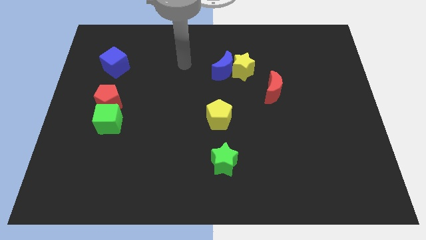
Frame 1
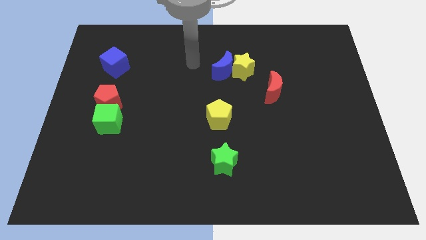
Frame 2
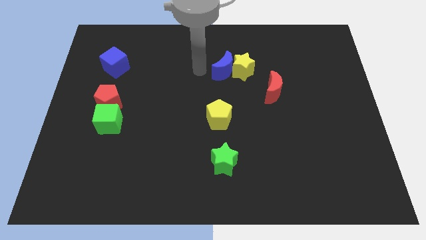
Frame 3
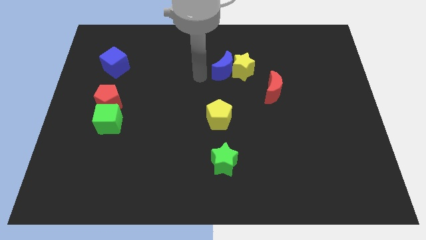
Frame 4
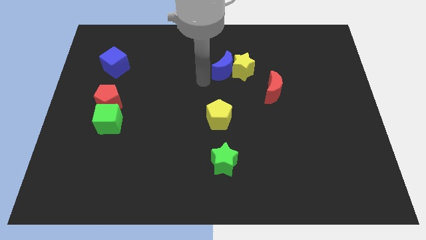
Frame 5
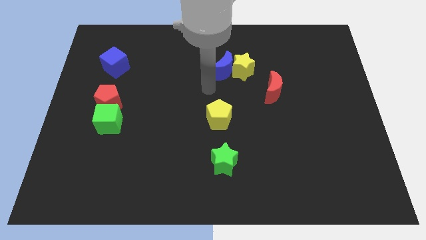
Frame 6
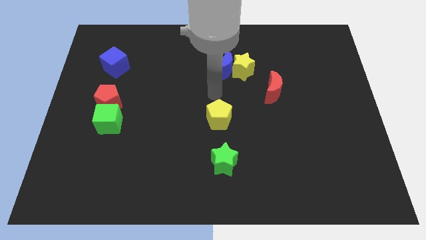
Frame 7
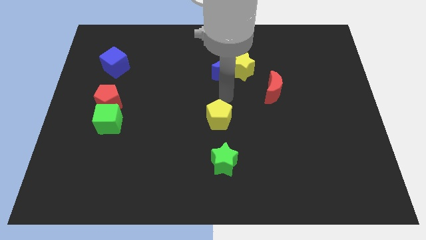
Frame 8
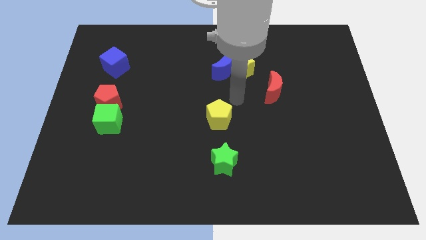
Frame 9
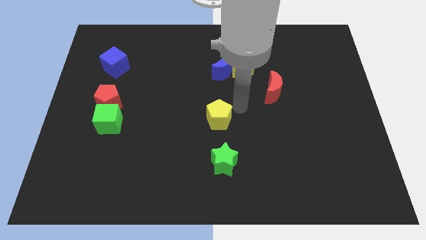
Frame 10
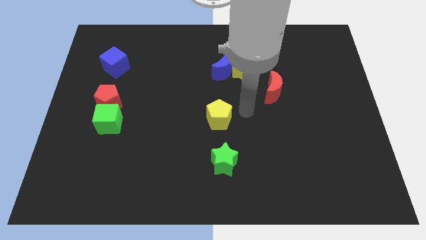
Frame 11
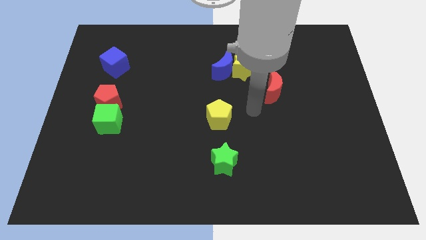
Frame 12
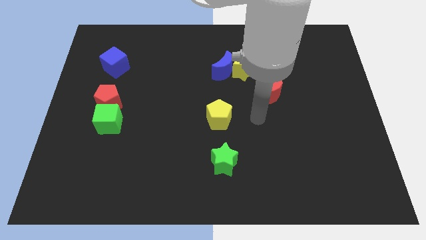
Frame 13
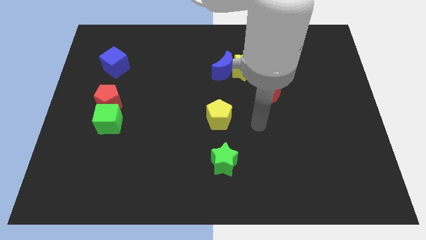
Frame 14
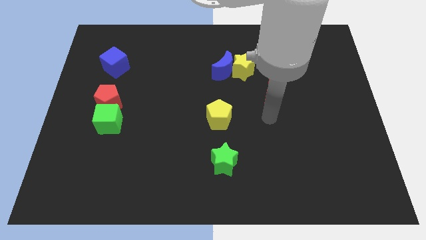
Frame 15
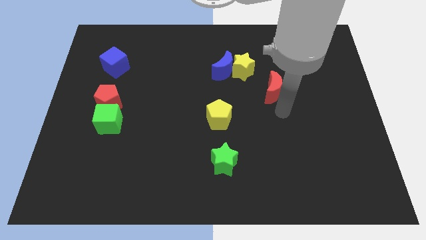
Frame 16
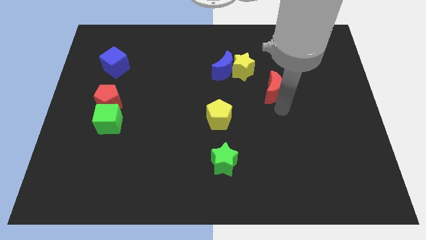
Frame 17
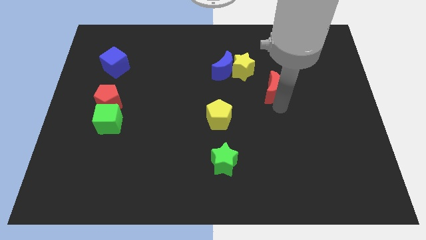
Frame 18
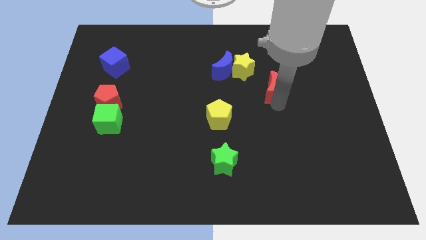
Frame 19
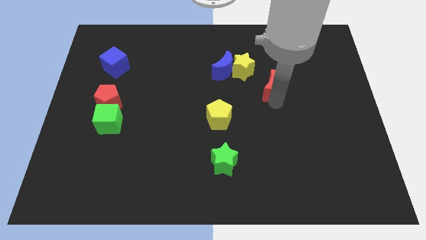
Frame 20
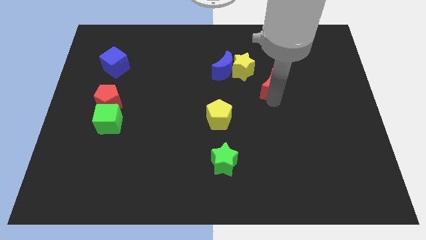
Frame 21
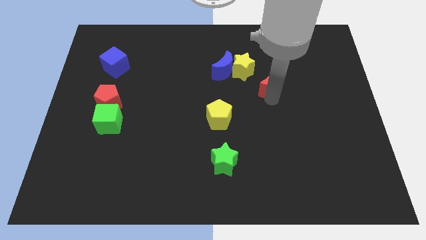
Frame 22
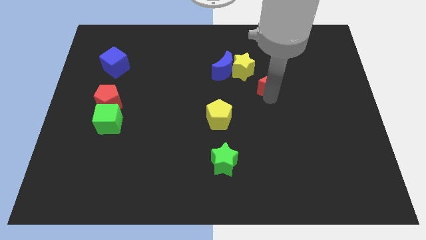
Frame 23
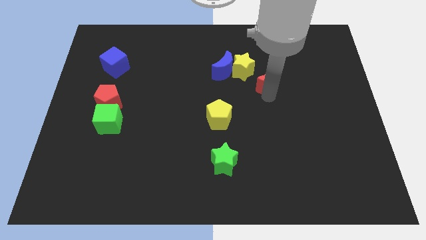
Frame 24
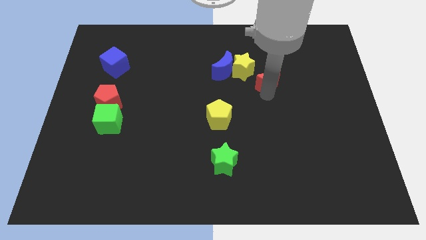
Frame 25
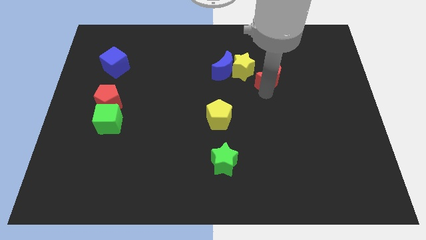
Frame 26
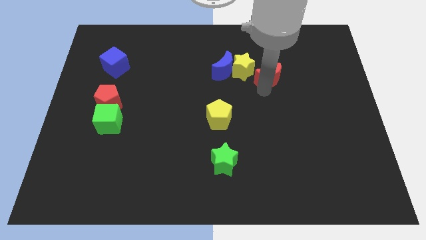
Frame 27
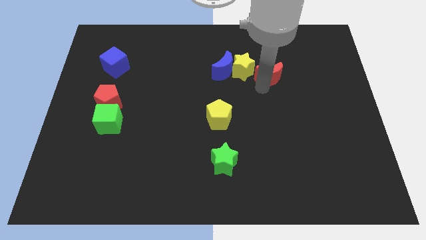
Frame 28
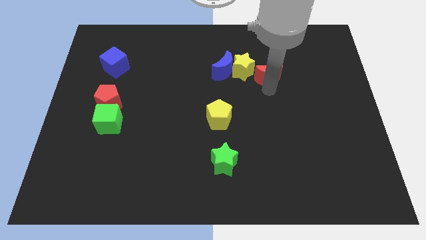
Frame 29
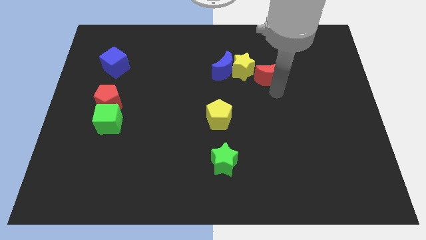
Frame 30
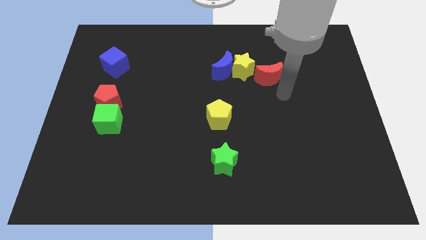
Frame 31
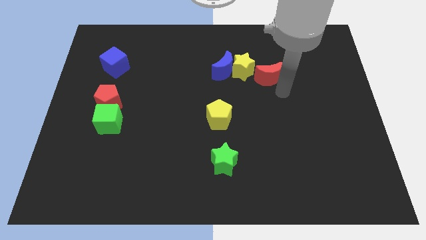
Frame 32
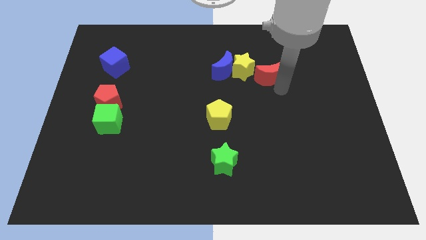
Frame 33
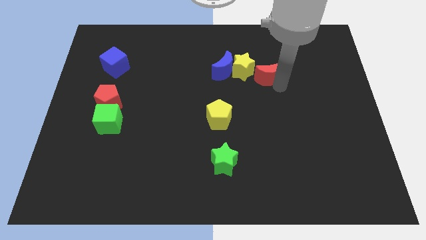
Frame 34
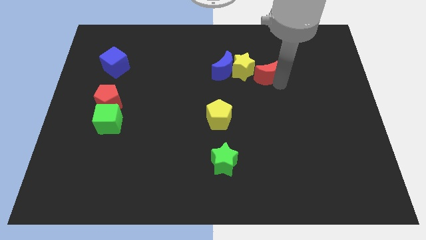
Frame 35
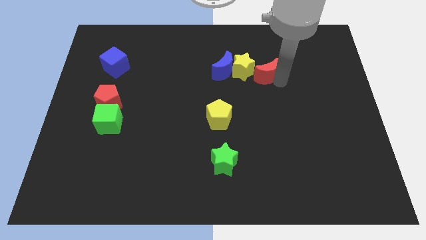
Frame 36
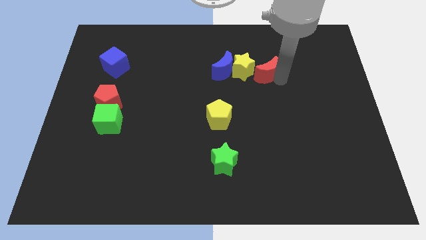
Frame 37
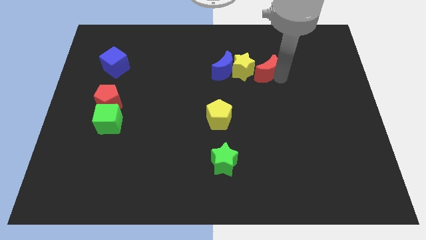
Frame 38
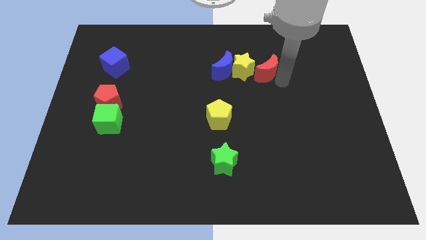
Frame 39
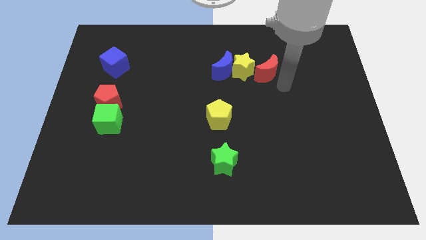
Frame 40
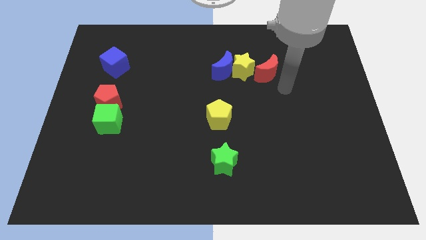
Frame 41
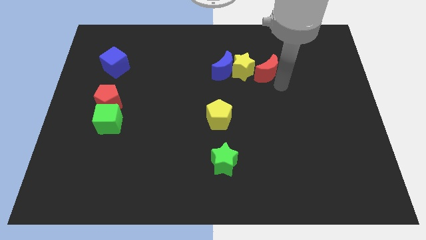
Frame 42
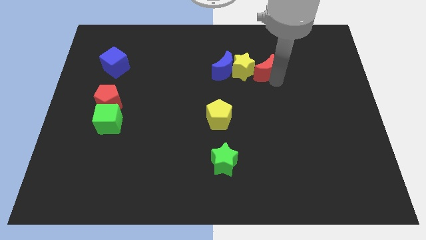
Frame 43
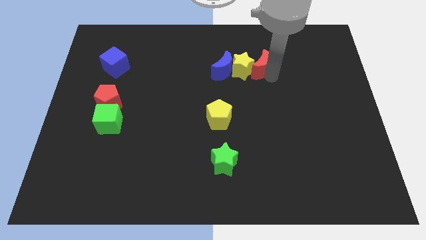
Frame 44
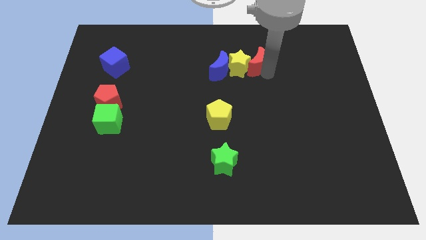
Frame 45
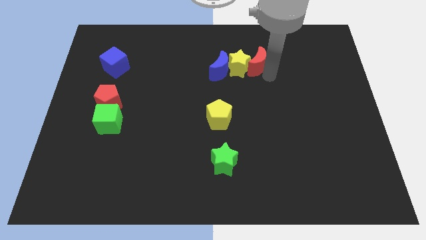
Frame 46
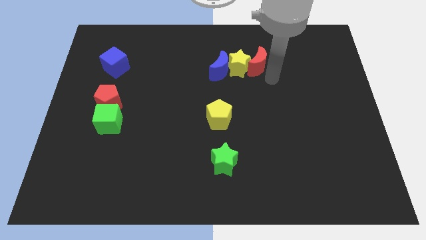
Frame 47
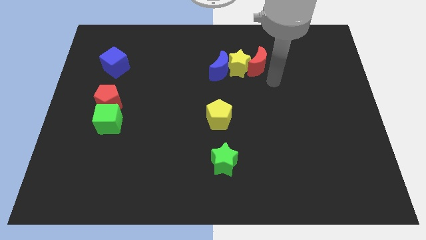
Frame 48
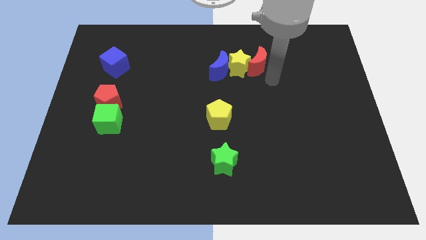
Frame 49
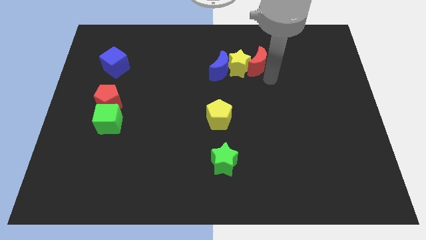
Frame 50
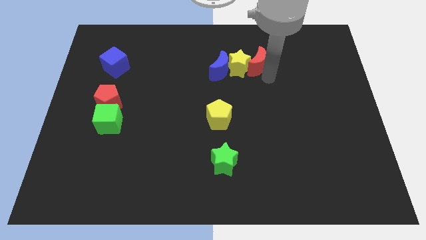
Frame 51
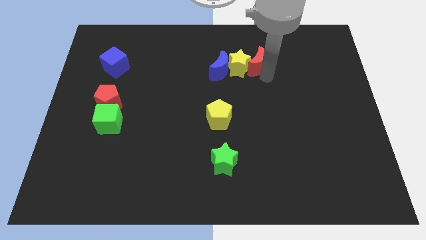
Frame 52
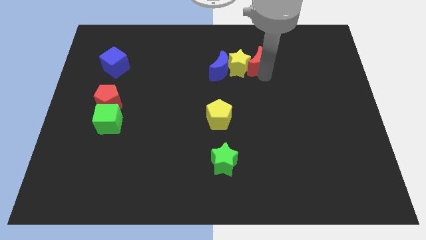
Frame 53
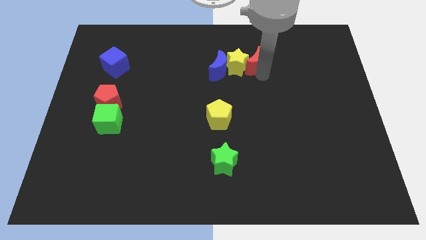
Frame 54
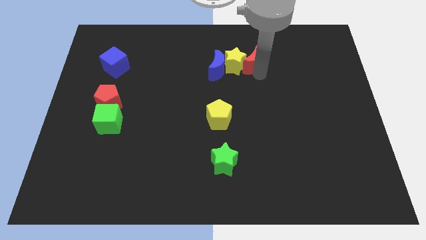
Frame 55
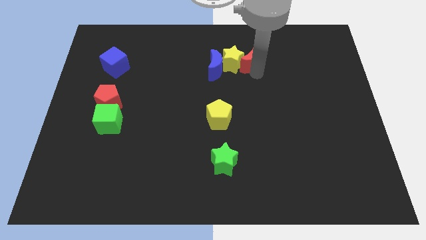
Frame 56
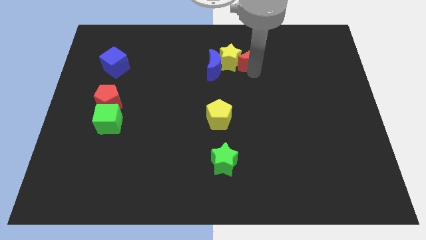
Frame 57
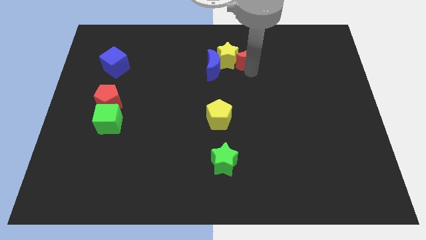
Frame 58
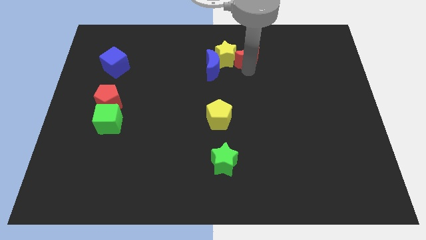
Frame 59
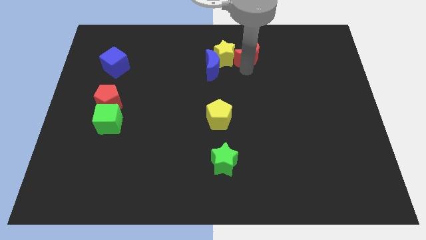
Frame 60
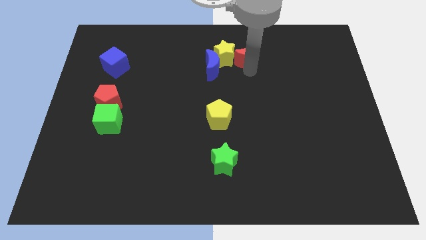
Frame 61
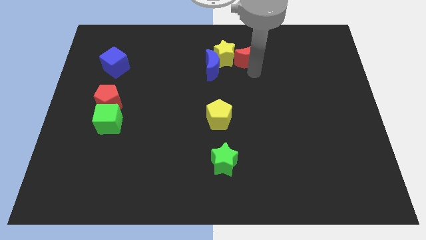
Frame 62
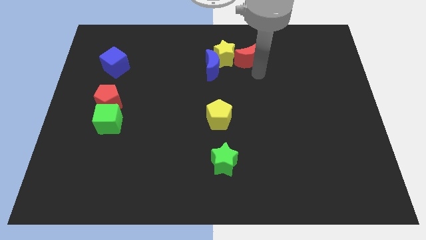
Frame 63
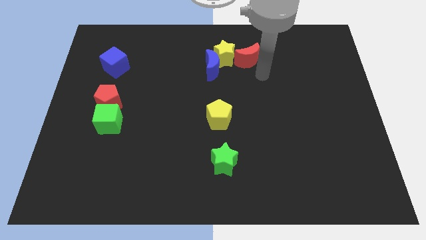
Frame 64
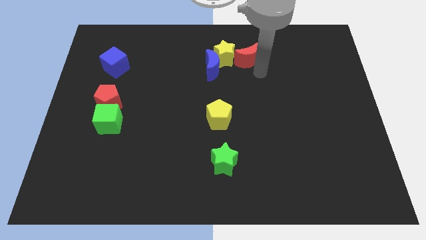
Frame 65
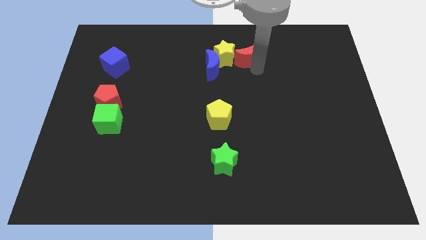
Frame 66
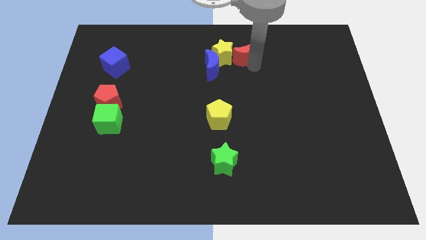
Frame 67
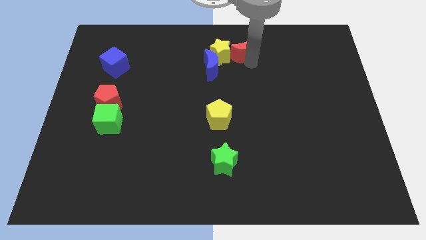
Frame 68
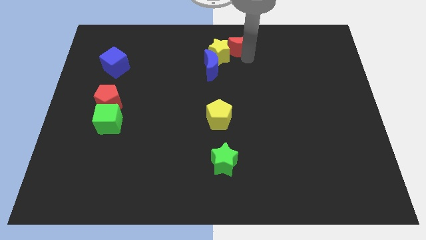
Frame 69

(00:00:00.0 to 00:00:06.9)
move the red moon to the top
